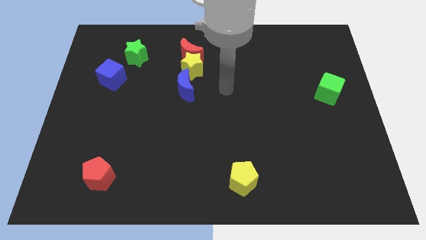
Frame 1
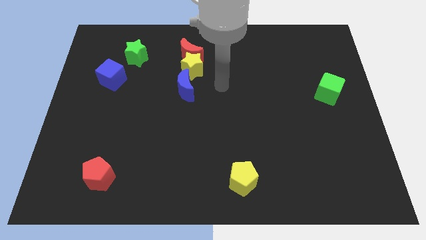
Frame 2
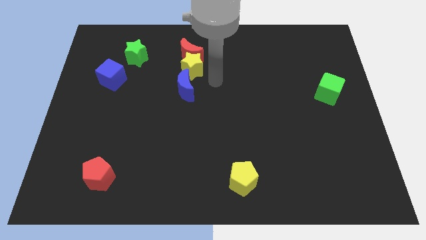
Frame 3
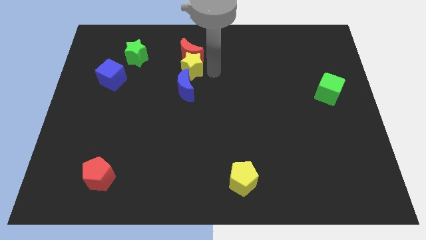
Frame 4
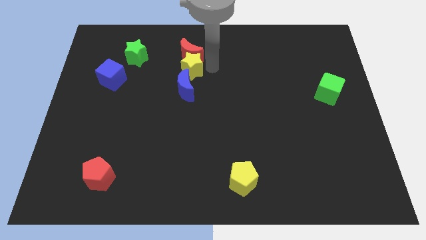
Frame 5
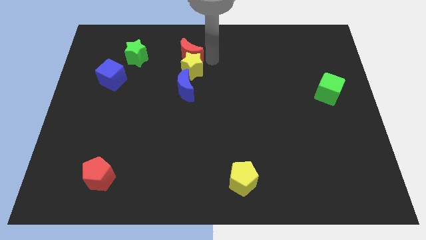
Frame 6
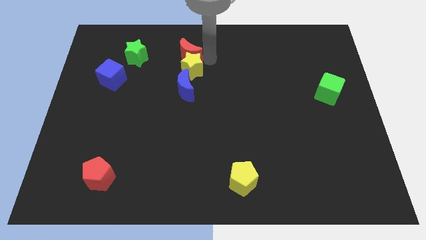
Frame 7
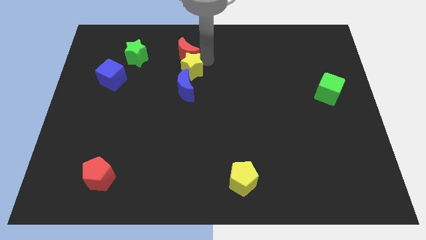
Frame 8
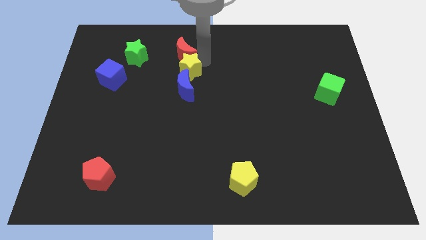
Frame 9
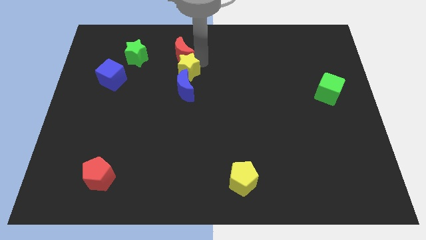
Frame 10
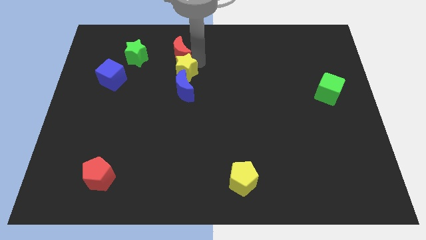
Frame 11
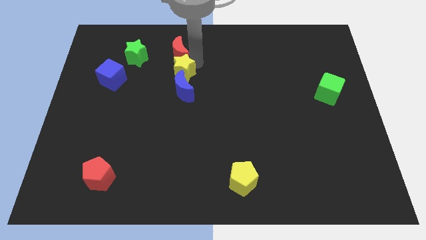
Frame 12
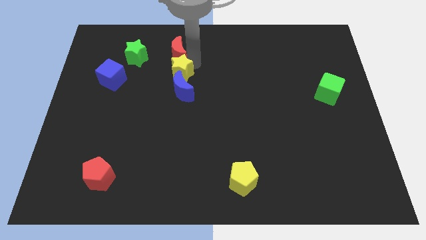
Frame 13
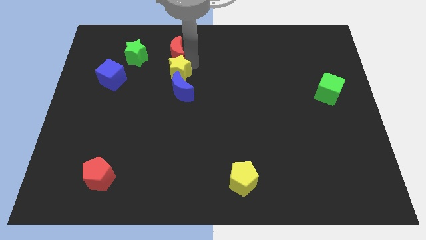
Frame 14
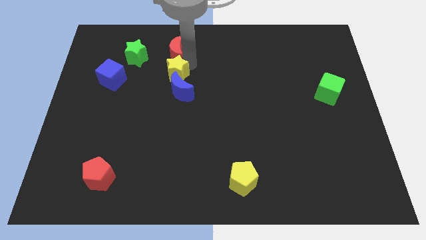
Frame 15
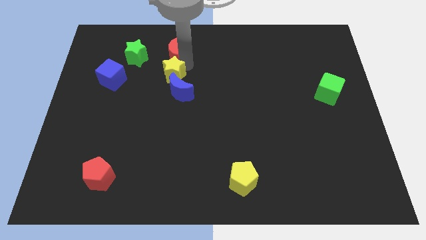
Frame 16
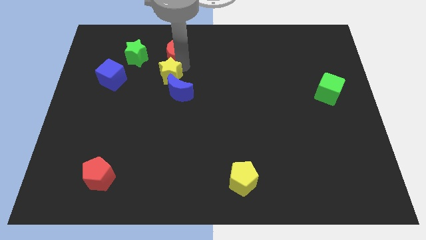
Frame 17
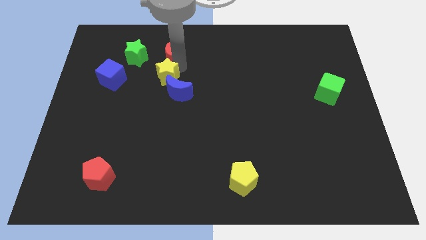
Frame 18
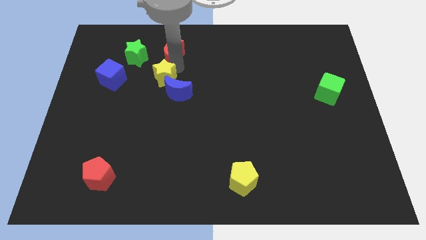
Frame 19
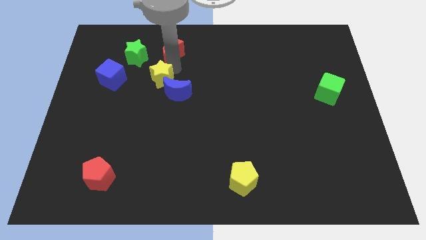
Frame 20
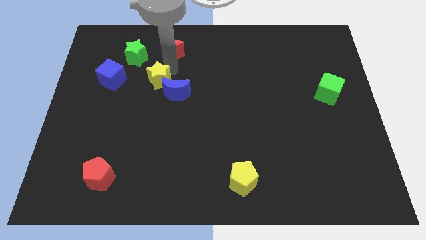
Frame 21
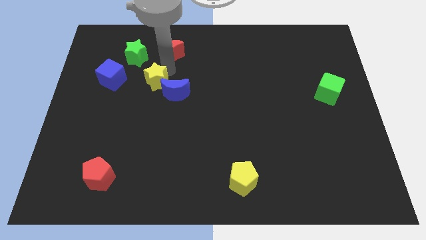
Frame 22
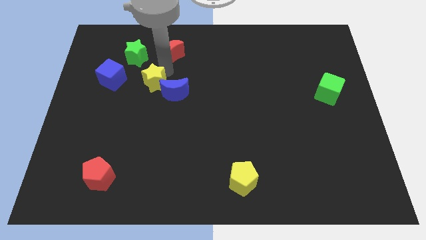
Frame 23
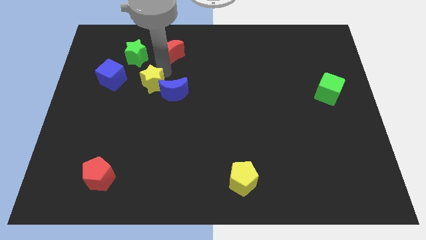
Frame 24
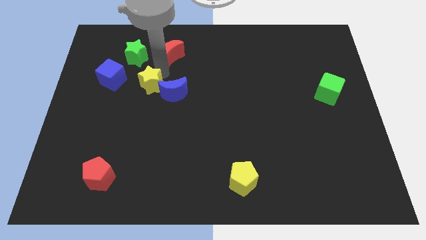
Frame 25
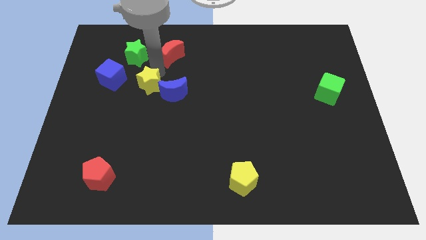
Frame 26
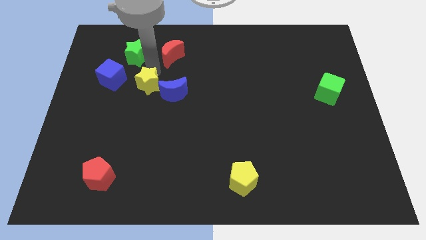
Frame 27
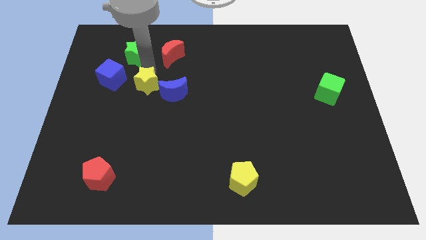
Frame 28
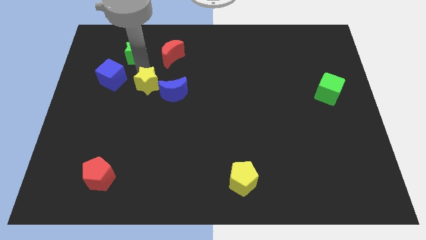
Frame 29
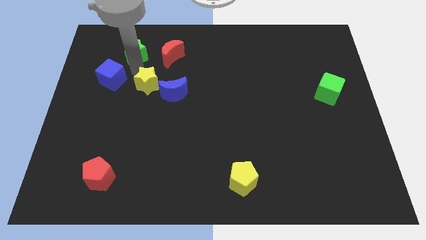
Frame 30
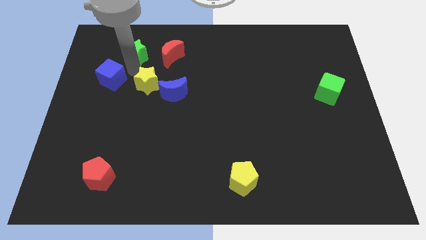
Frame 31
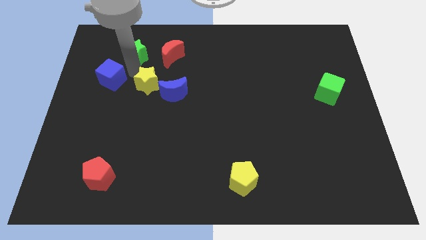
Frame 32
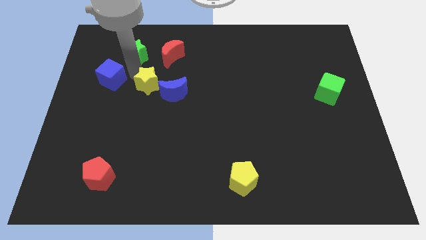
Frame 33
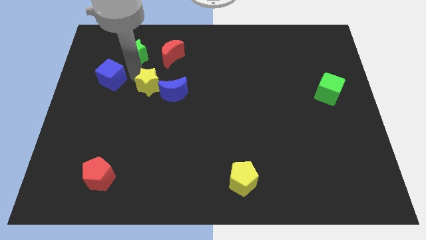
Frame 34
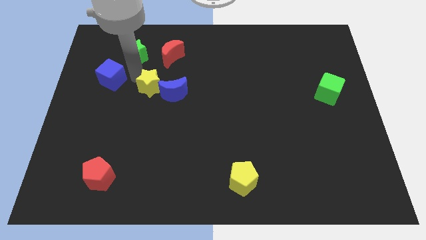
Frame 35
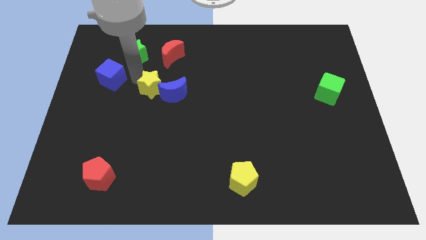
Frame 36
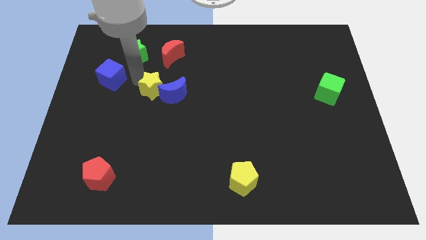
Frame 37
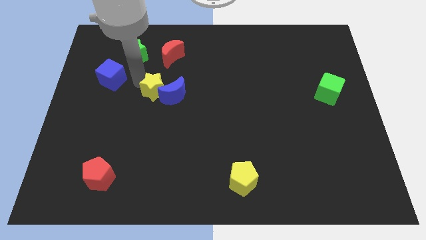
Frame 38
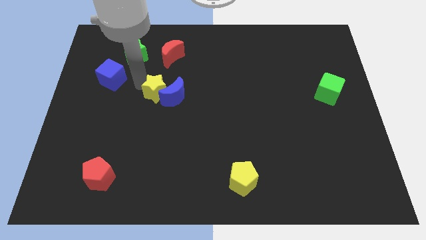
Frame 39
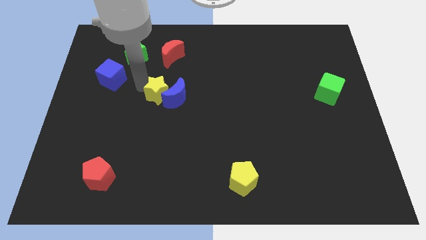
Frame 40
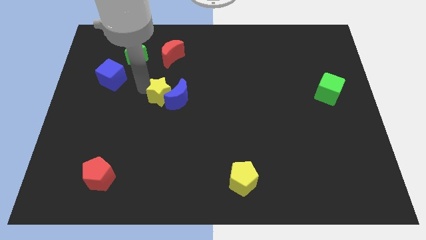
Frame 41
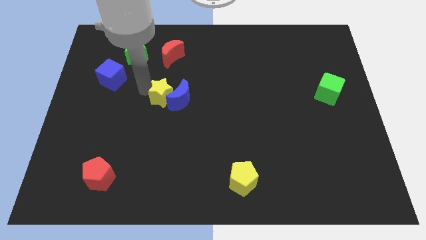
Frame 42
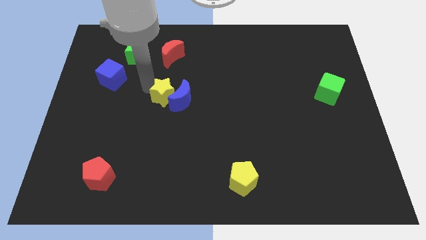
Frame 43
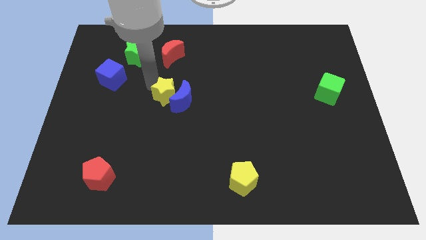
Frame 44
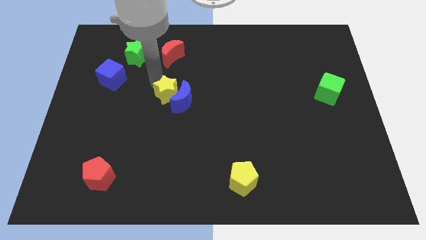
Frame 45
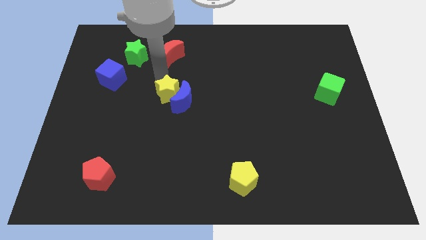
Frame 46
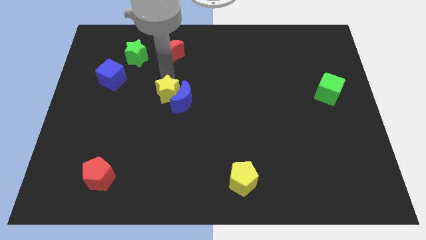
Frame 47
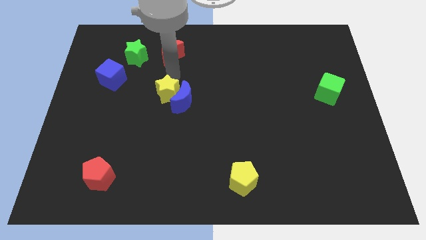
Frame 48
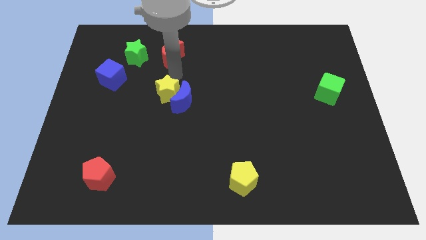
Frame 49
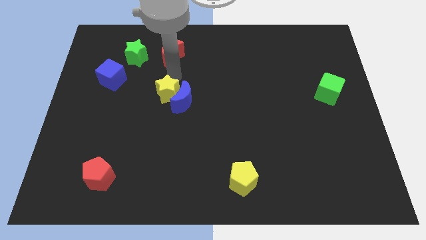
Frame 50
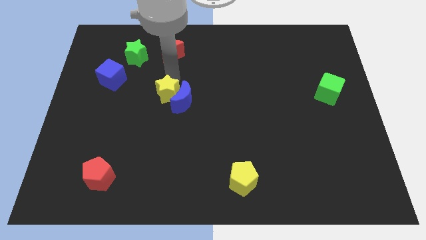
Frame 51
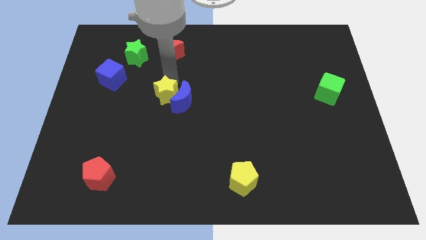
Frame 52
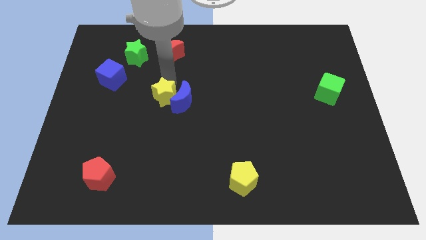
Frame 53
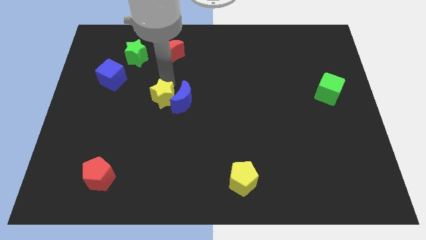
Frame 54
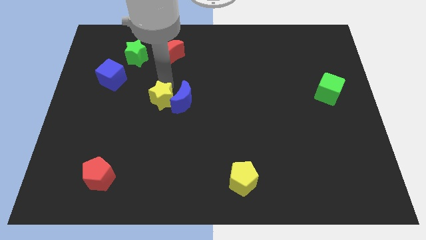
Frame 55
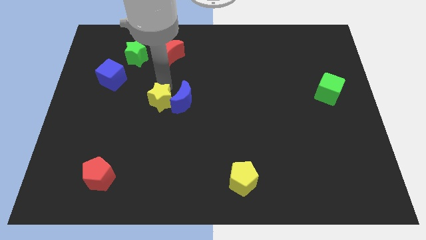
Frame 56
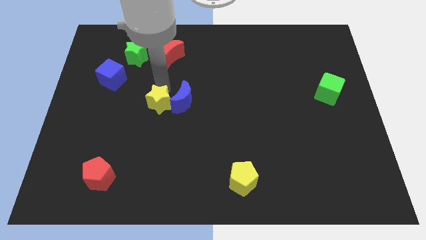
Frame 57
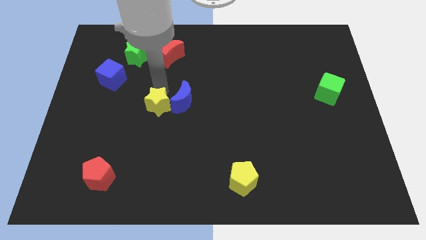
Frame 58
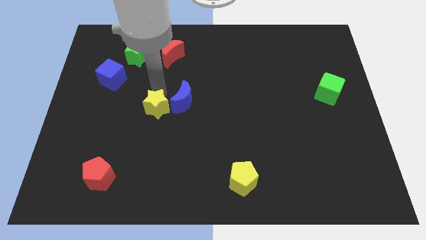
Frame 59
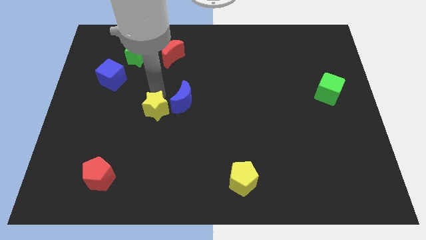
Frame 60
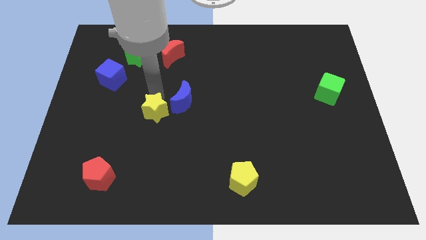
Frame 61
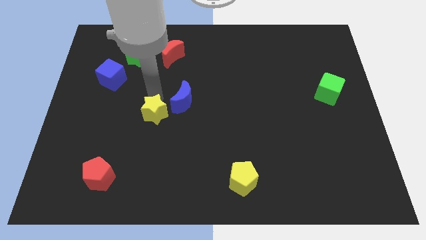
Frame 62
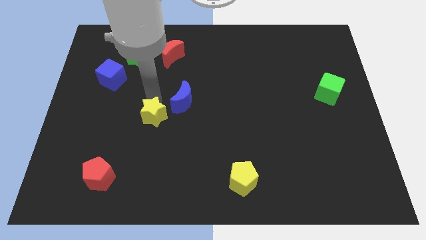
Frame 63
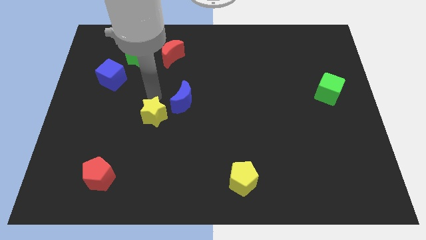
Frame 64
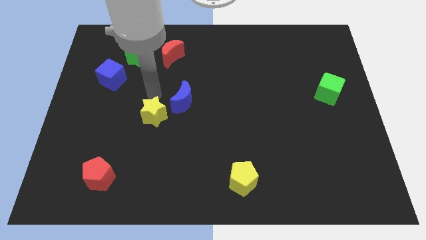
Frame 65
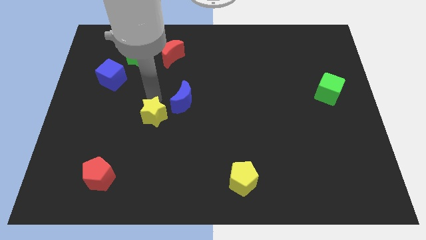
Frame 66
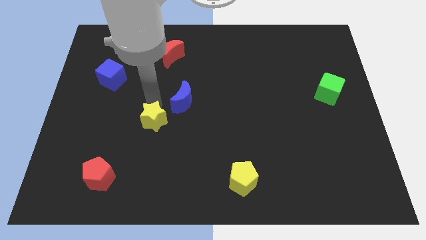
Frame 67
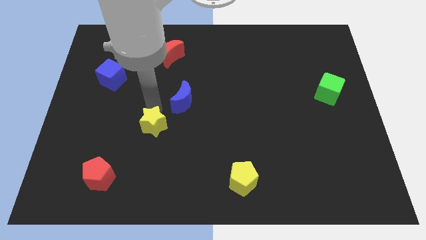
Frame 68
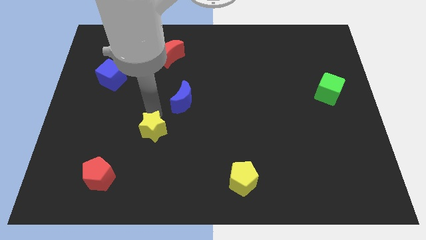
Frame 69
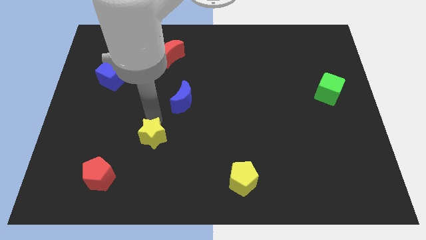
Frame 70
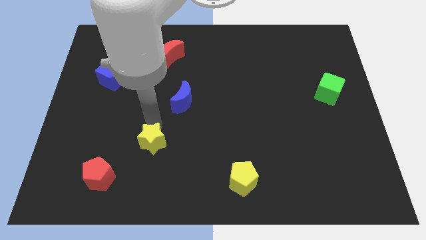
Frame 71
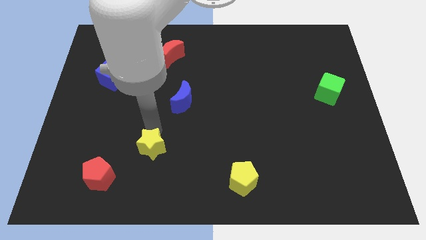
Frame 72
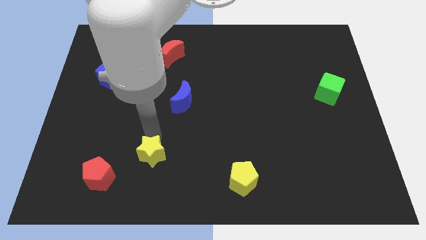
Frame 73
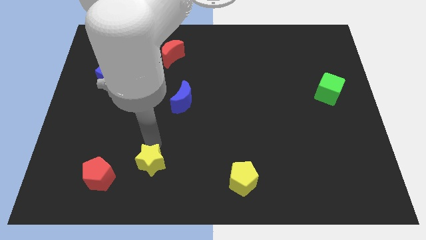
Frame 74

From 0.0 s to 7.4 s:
put the yellow star right of the red pentagon

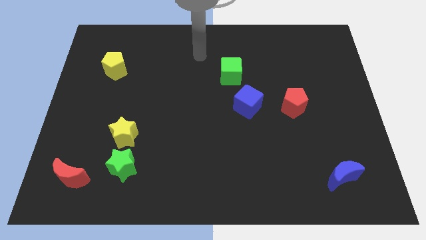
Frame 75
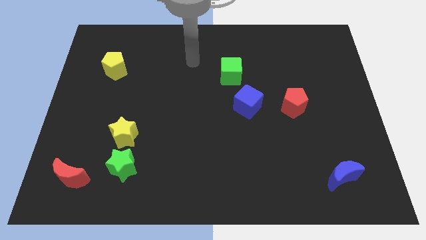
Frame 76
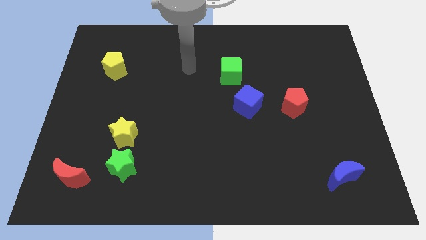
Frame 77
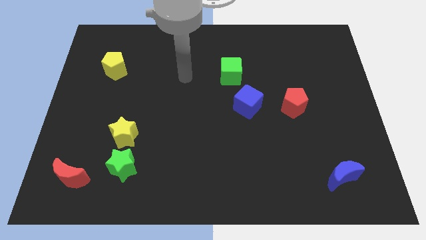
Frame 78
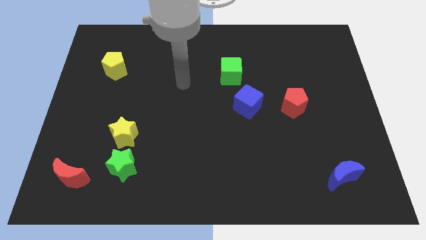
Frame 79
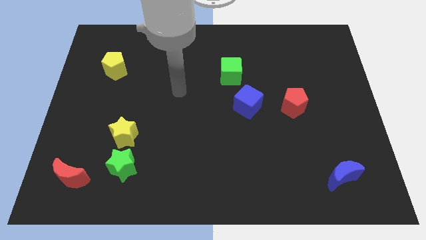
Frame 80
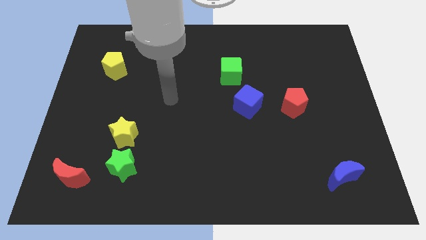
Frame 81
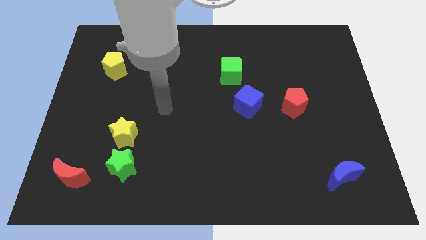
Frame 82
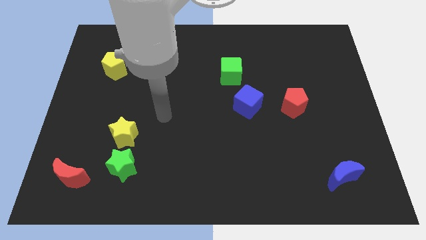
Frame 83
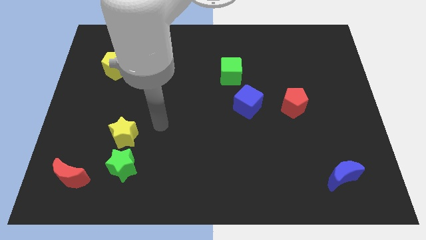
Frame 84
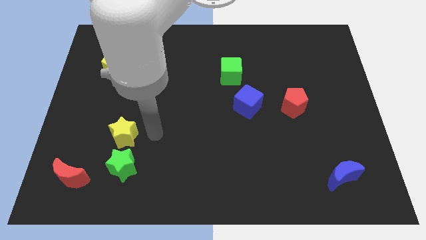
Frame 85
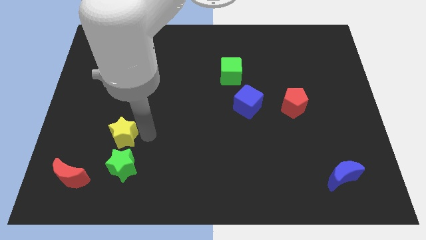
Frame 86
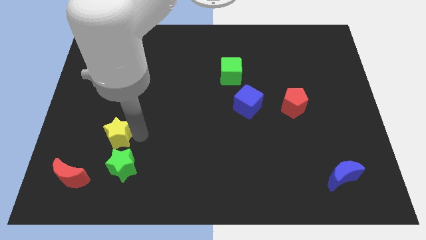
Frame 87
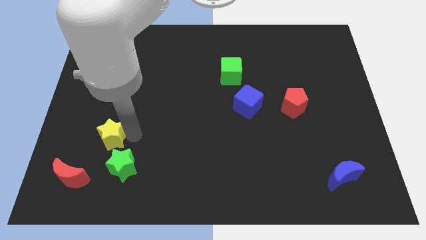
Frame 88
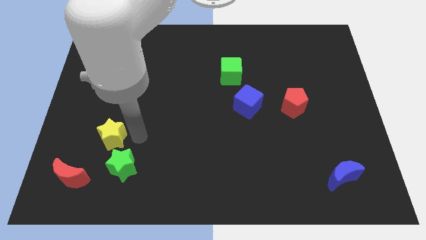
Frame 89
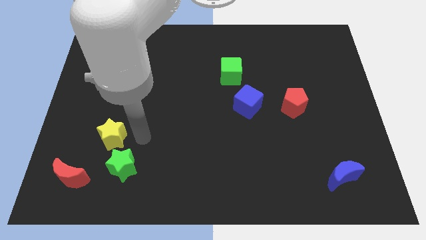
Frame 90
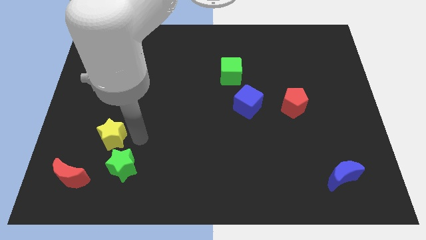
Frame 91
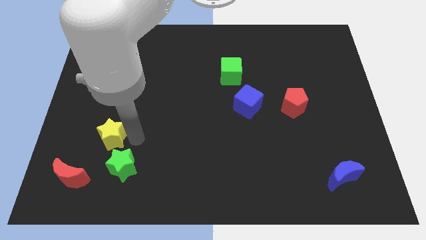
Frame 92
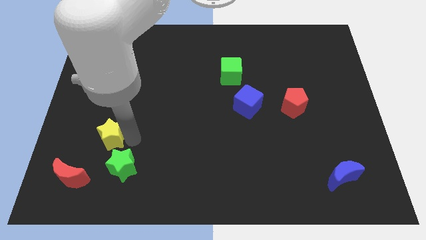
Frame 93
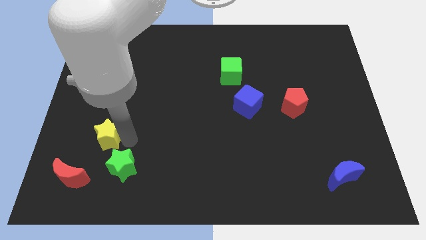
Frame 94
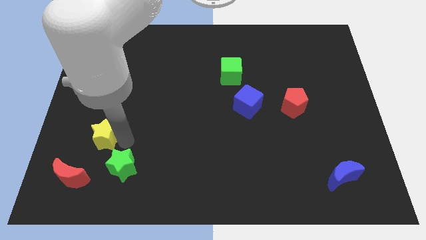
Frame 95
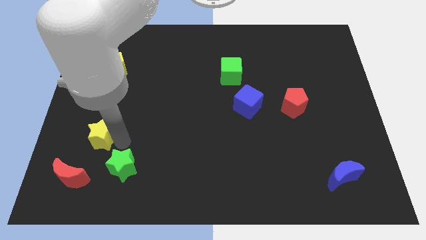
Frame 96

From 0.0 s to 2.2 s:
slide the yellow star above the red moon
